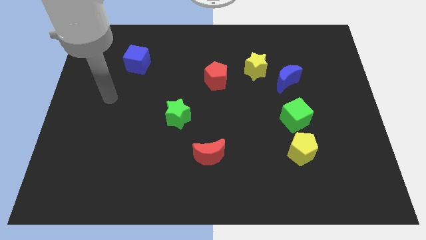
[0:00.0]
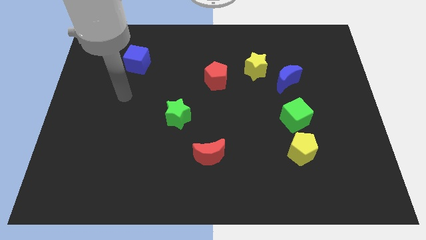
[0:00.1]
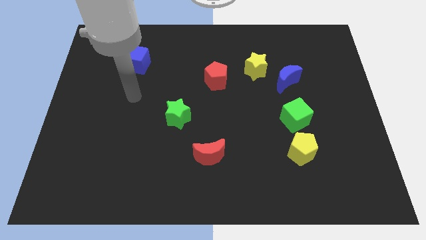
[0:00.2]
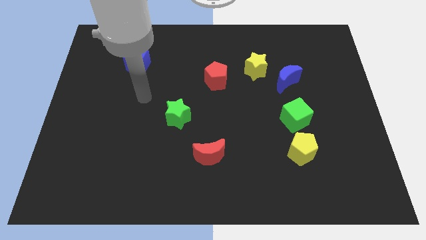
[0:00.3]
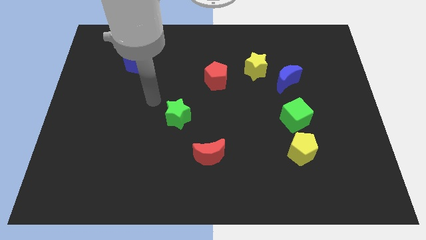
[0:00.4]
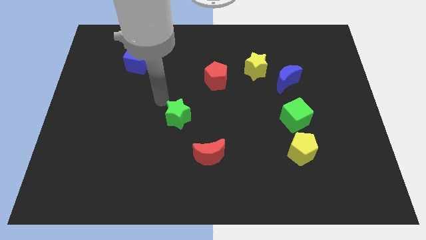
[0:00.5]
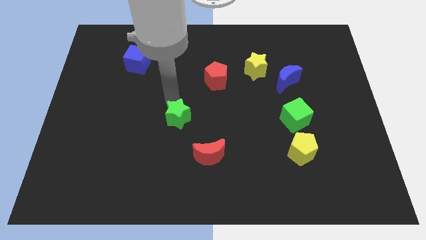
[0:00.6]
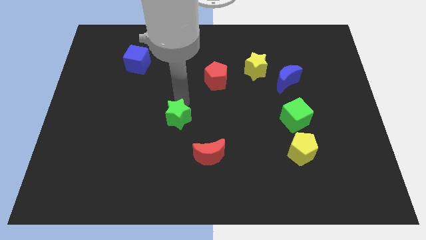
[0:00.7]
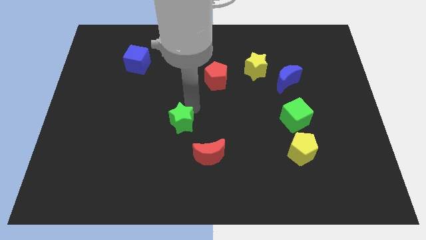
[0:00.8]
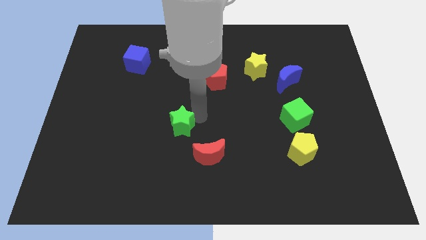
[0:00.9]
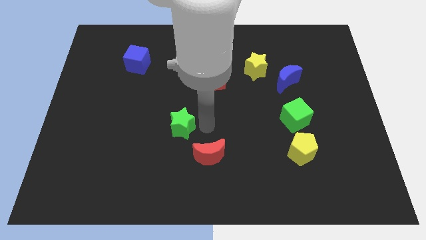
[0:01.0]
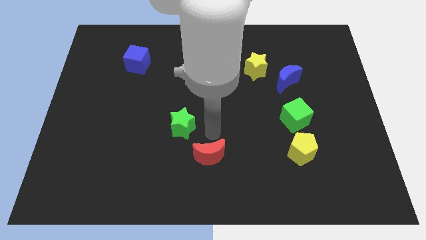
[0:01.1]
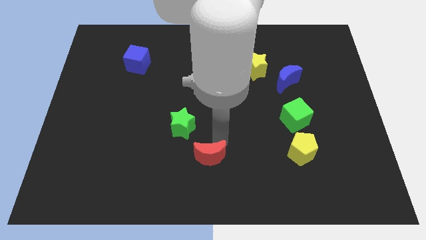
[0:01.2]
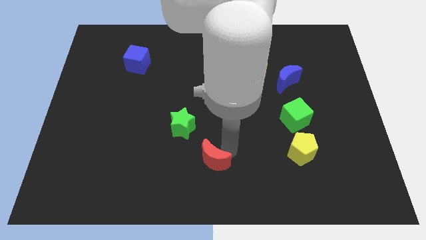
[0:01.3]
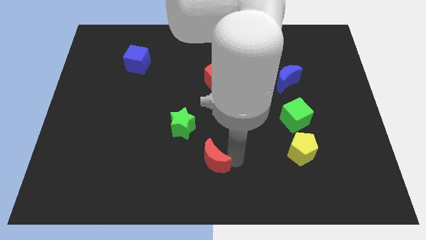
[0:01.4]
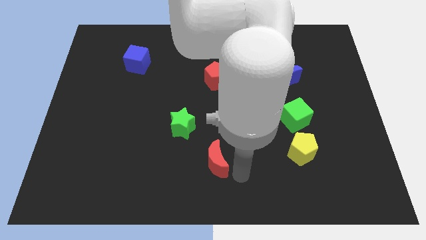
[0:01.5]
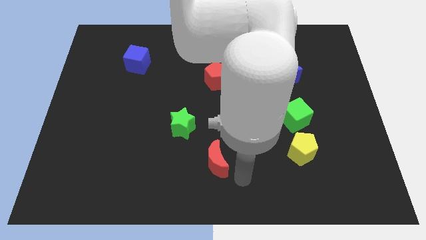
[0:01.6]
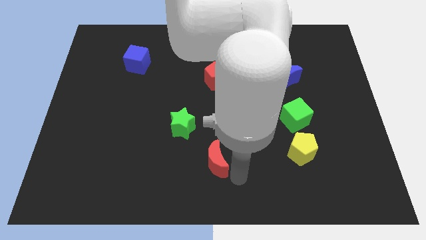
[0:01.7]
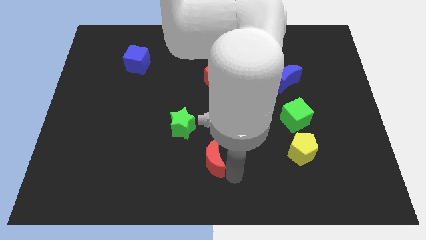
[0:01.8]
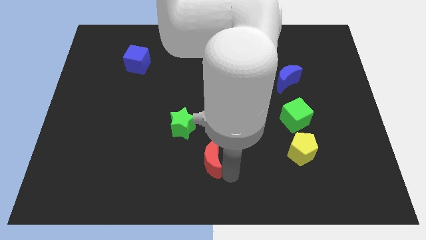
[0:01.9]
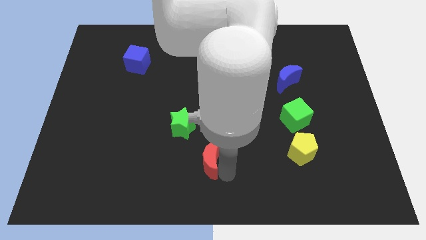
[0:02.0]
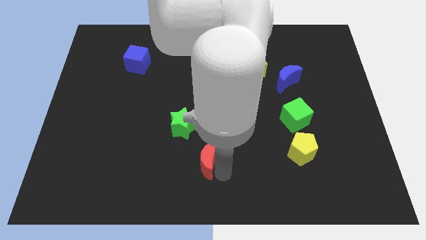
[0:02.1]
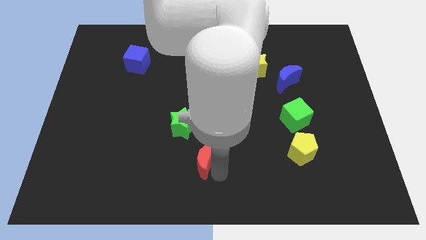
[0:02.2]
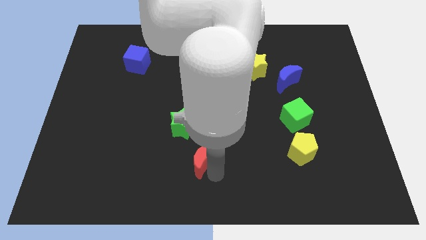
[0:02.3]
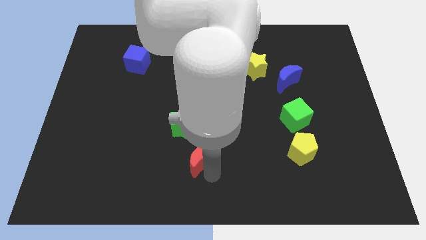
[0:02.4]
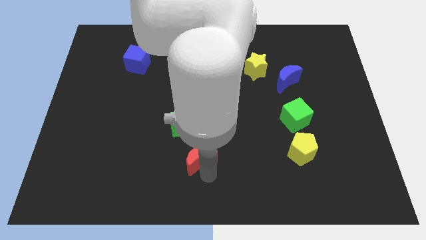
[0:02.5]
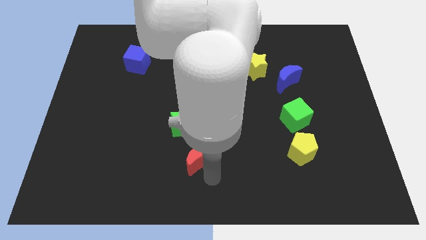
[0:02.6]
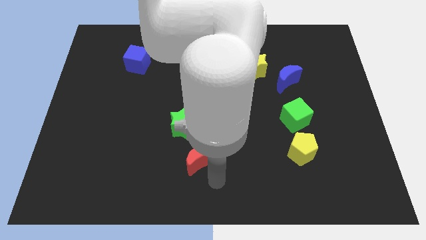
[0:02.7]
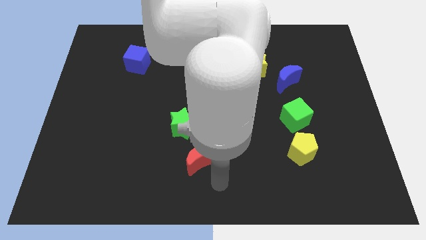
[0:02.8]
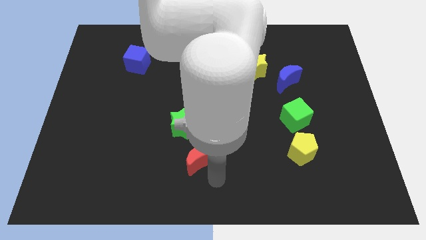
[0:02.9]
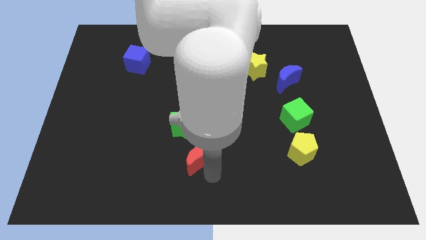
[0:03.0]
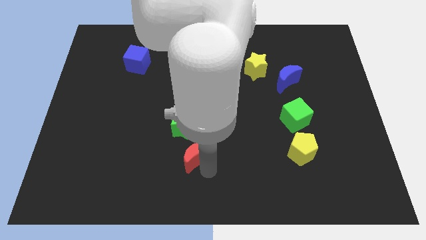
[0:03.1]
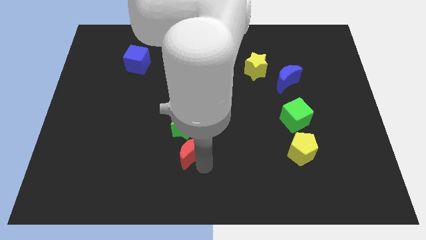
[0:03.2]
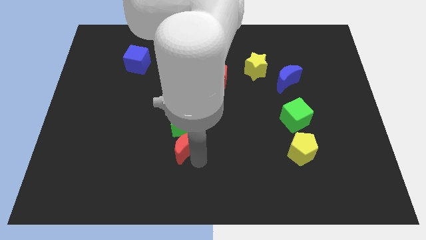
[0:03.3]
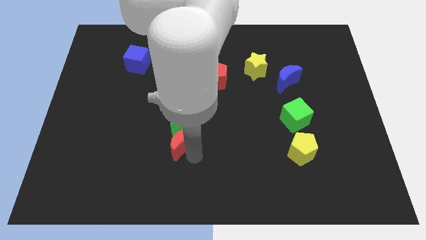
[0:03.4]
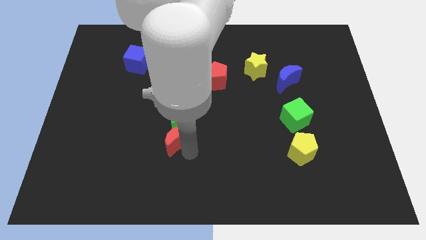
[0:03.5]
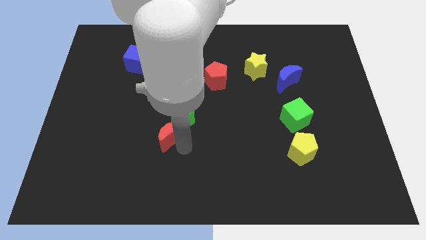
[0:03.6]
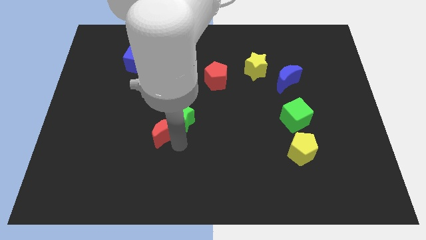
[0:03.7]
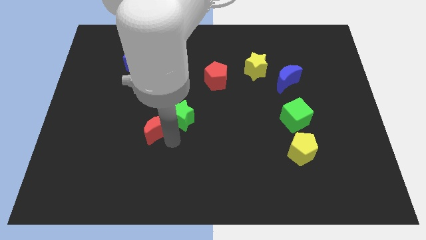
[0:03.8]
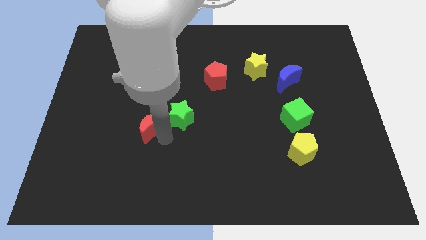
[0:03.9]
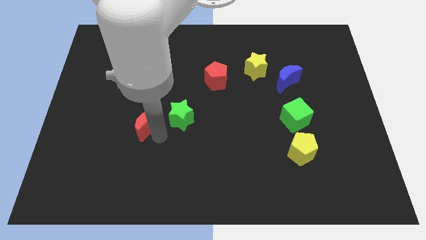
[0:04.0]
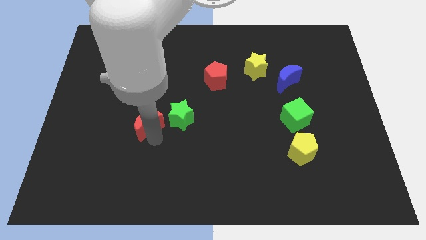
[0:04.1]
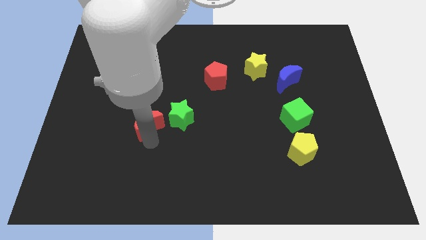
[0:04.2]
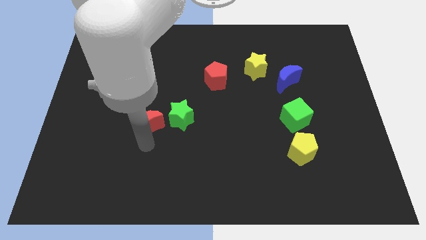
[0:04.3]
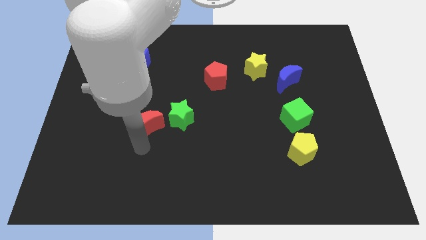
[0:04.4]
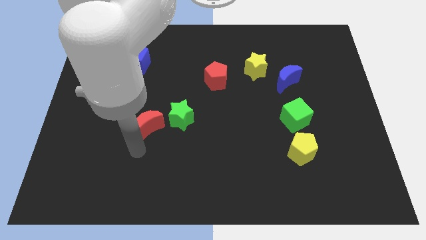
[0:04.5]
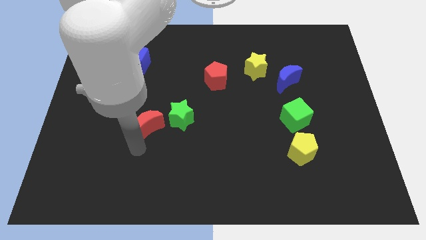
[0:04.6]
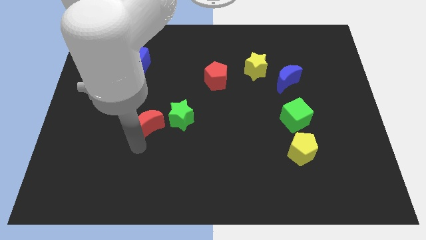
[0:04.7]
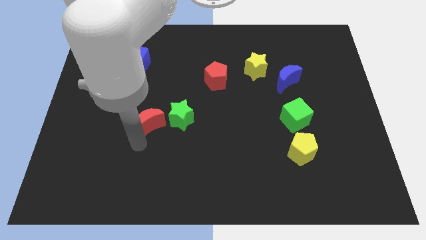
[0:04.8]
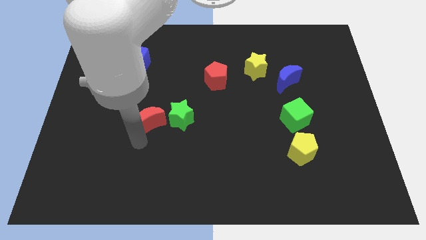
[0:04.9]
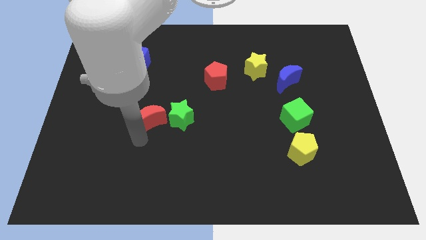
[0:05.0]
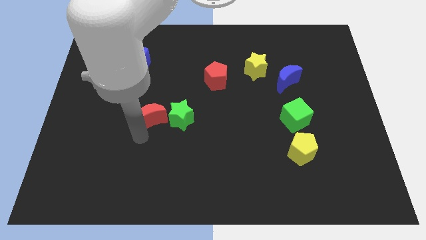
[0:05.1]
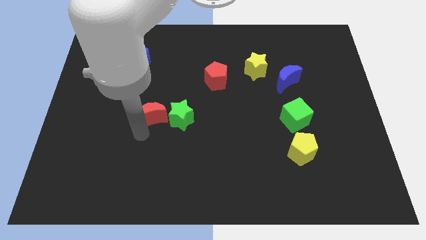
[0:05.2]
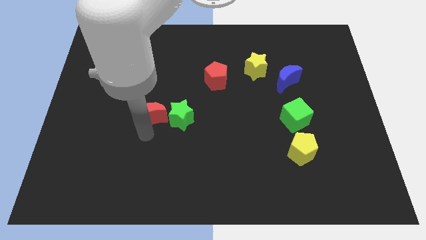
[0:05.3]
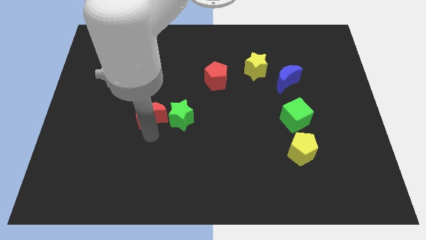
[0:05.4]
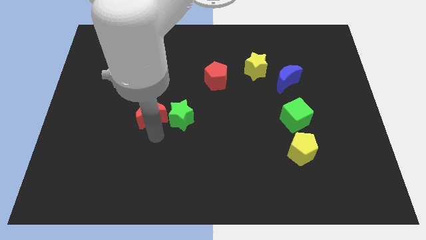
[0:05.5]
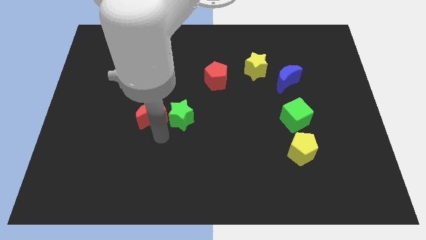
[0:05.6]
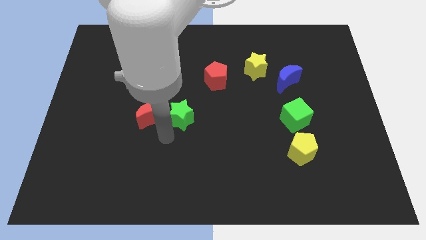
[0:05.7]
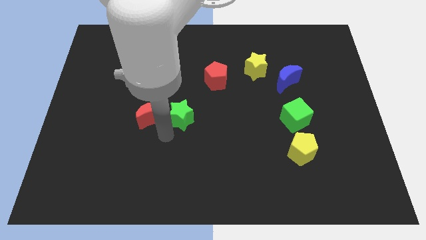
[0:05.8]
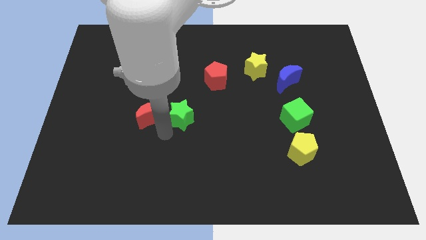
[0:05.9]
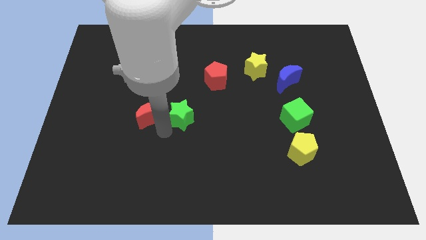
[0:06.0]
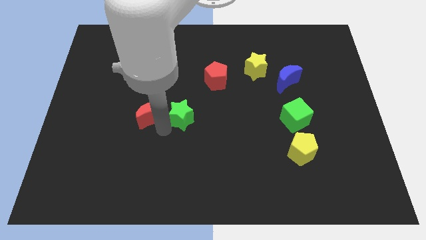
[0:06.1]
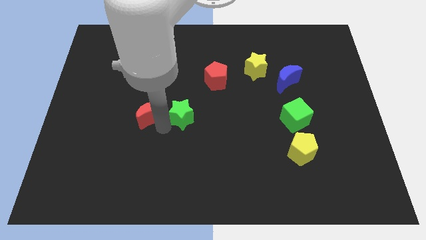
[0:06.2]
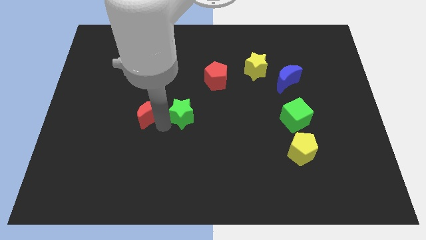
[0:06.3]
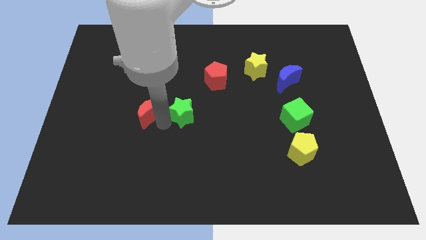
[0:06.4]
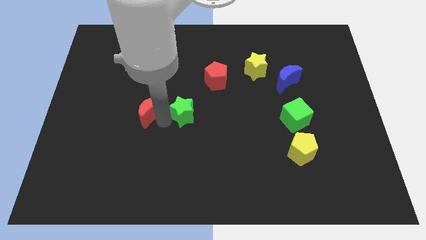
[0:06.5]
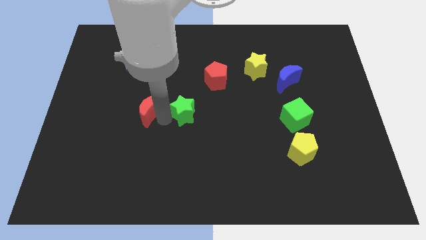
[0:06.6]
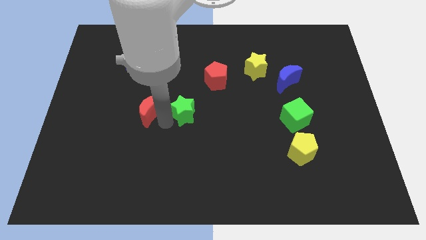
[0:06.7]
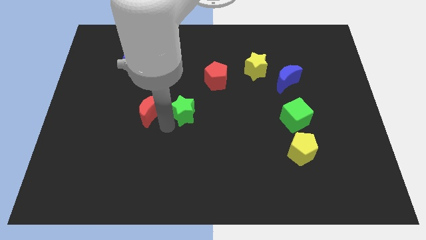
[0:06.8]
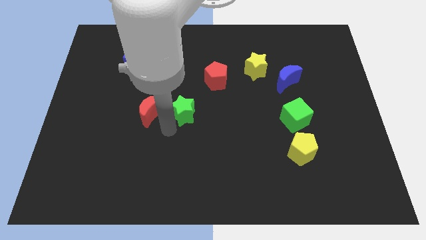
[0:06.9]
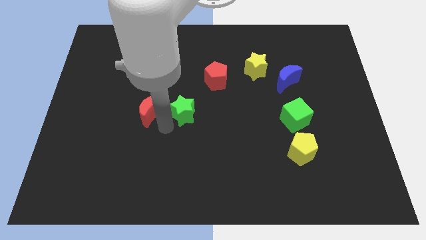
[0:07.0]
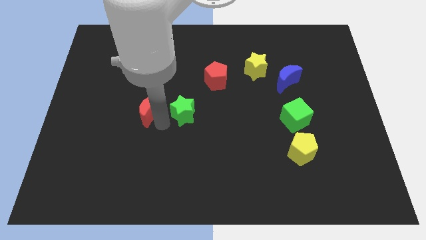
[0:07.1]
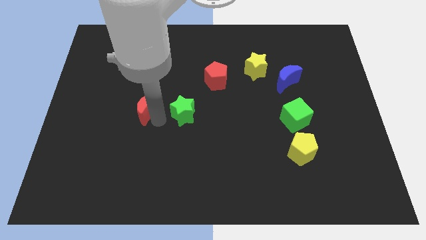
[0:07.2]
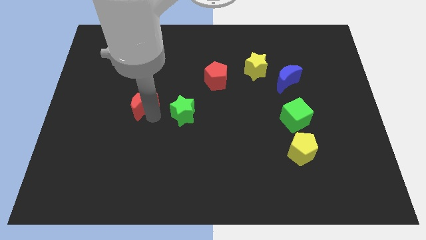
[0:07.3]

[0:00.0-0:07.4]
push the red moon upwards and then left
